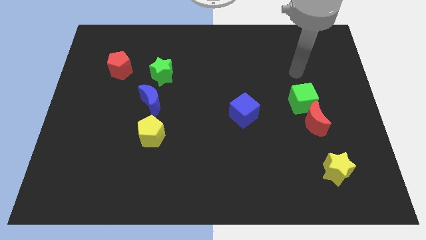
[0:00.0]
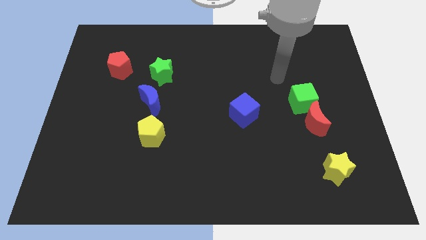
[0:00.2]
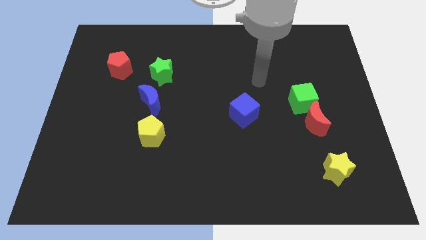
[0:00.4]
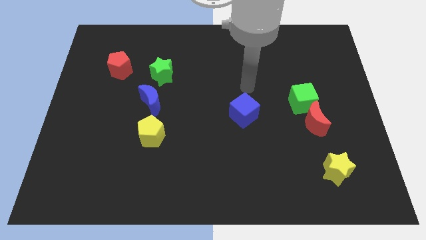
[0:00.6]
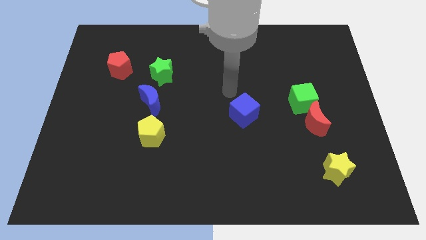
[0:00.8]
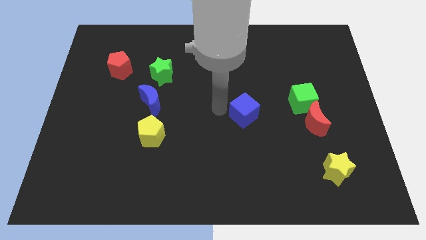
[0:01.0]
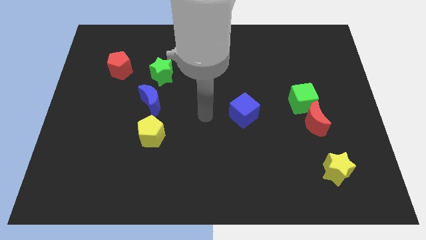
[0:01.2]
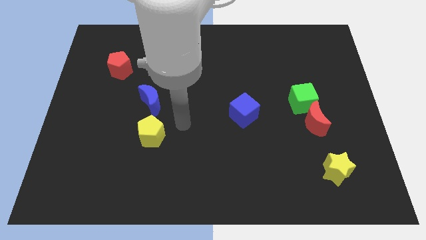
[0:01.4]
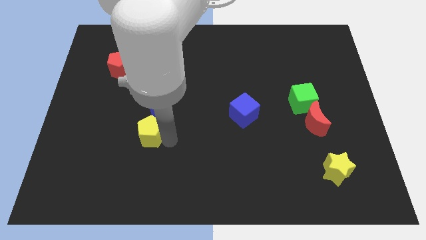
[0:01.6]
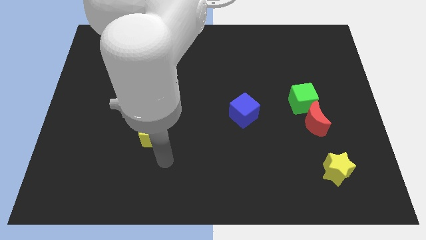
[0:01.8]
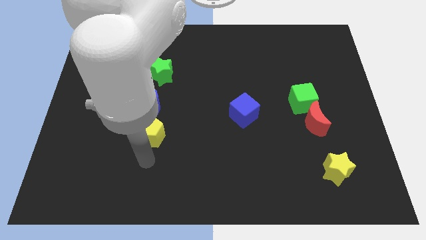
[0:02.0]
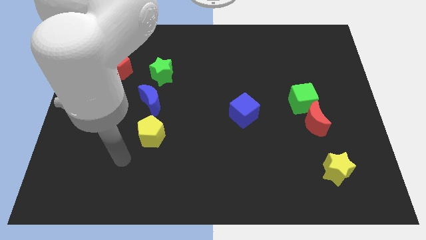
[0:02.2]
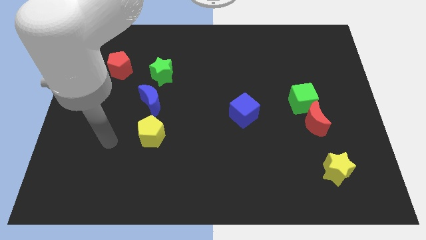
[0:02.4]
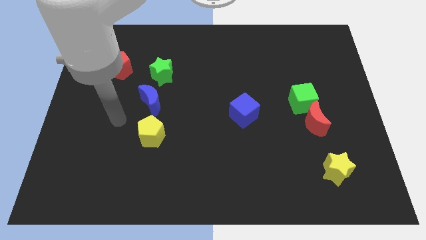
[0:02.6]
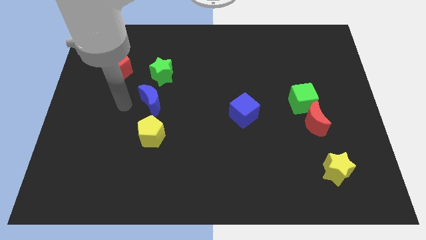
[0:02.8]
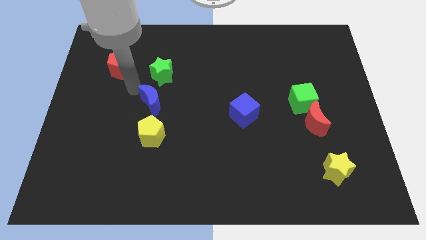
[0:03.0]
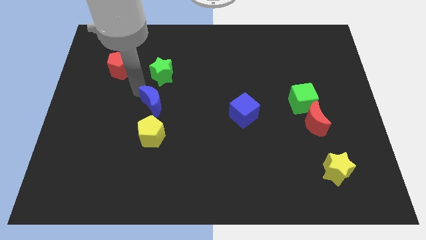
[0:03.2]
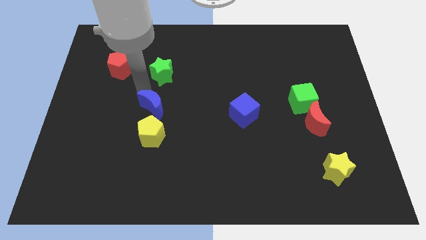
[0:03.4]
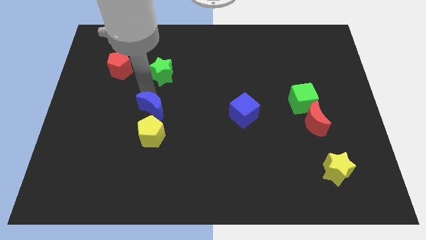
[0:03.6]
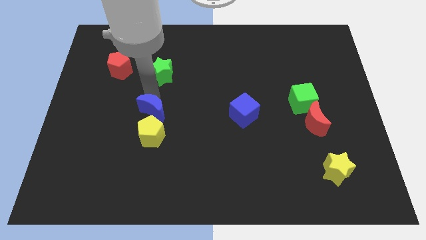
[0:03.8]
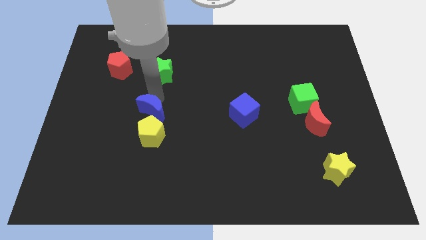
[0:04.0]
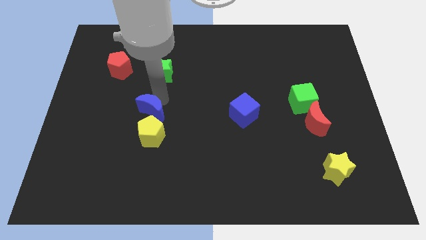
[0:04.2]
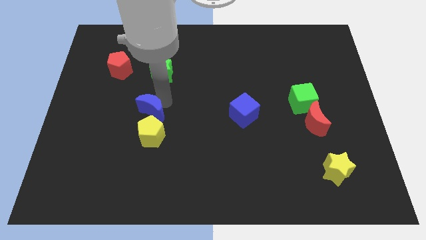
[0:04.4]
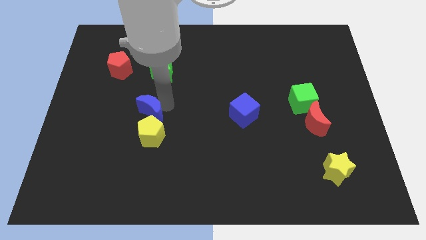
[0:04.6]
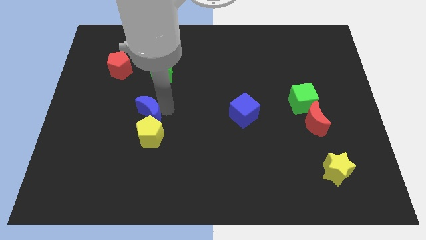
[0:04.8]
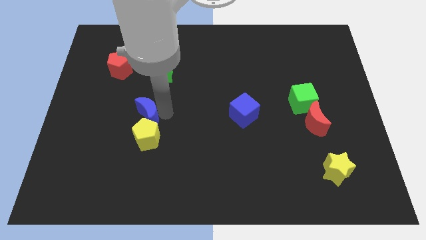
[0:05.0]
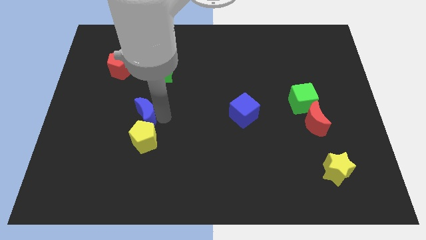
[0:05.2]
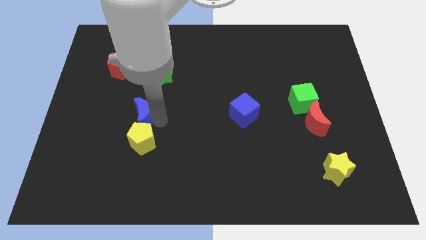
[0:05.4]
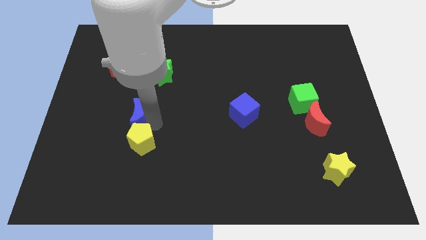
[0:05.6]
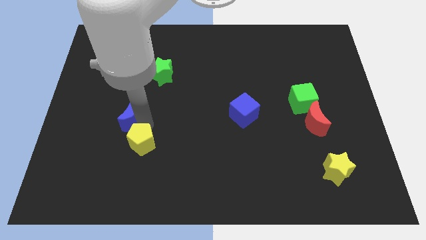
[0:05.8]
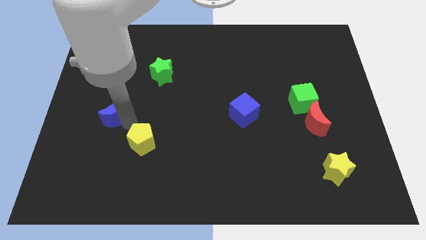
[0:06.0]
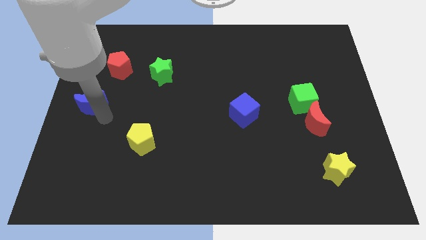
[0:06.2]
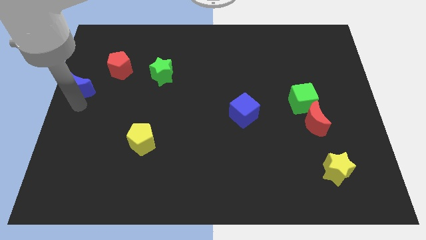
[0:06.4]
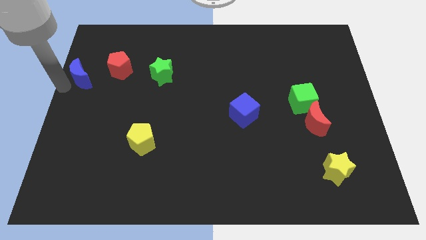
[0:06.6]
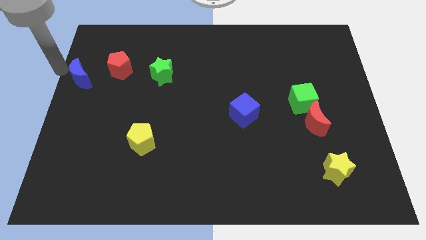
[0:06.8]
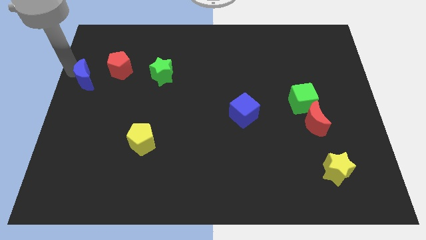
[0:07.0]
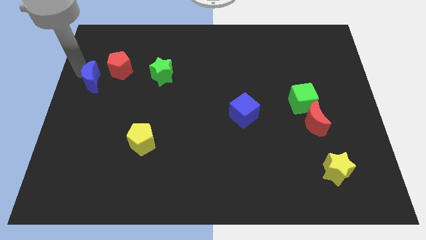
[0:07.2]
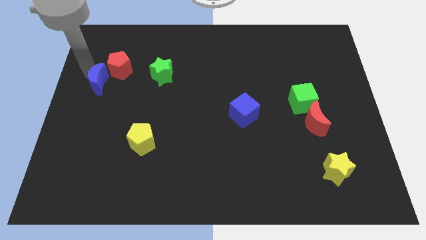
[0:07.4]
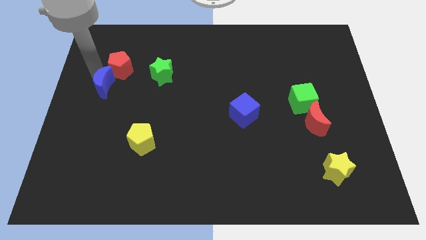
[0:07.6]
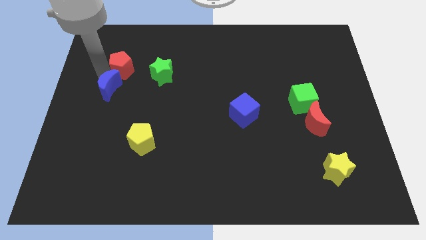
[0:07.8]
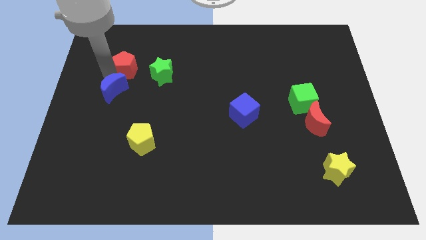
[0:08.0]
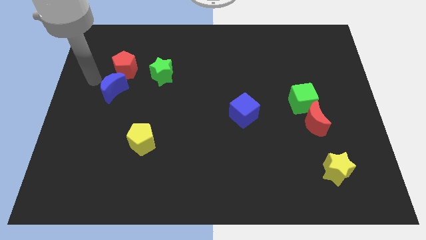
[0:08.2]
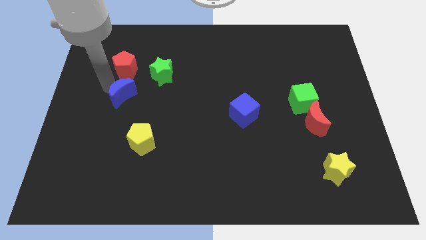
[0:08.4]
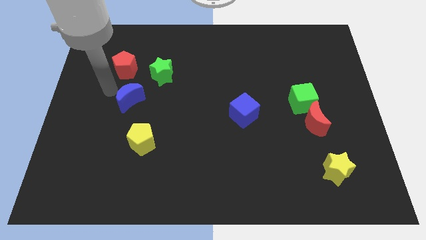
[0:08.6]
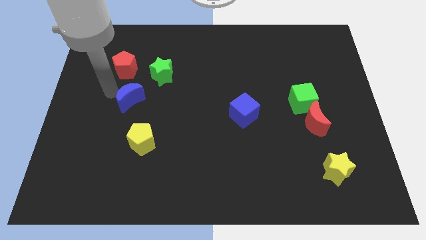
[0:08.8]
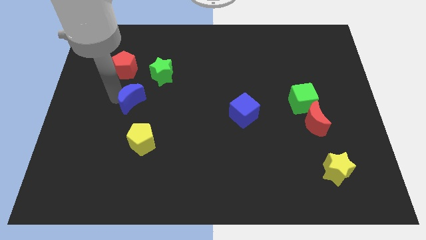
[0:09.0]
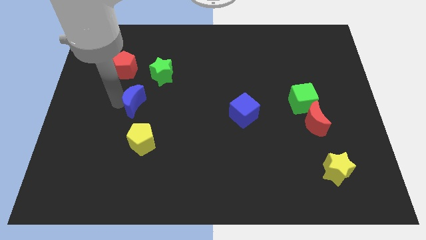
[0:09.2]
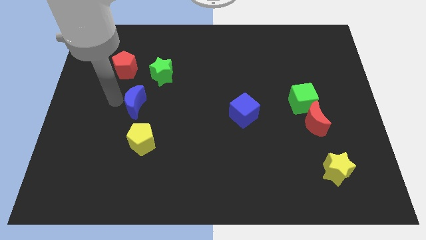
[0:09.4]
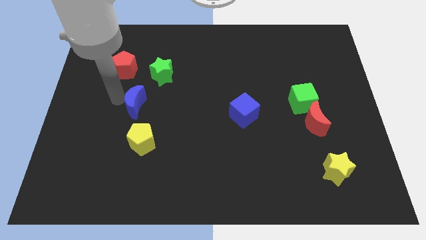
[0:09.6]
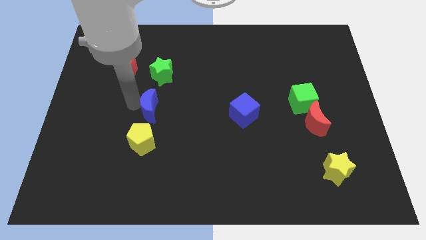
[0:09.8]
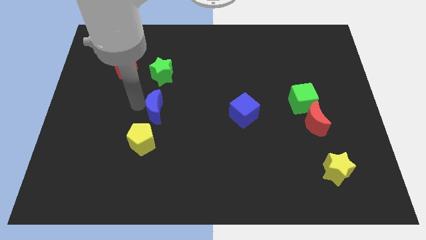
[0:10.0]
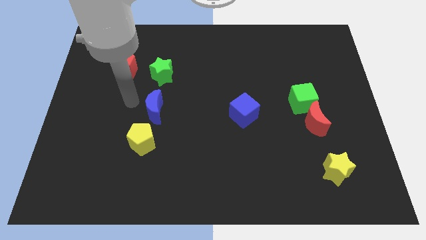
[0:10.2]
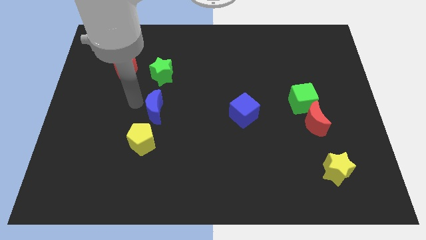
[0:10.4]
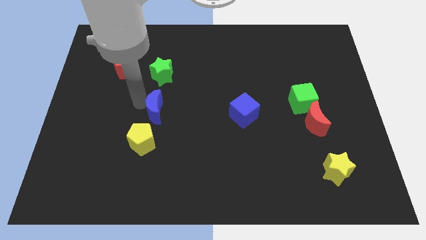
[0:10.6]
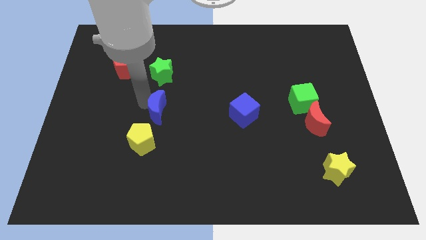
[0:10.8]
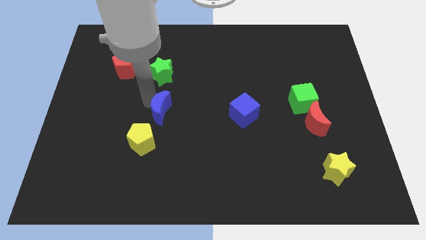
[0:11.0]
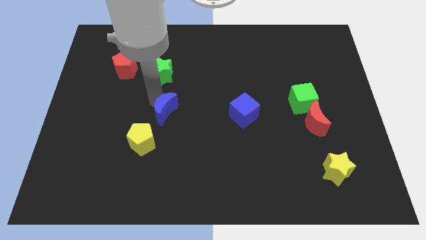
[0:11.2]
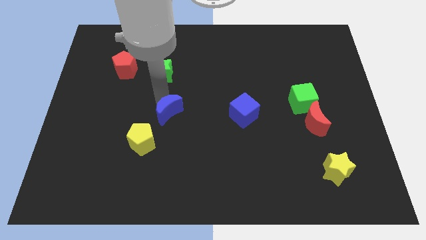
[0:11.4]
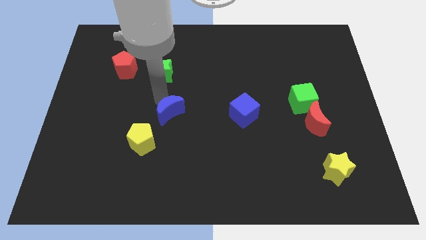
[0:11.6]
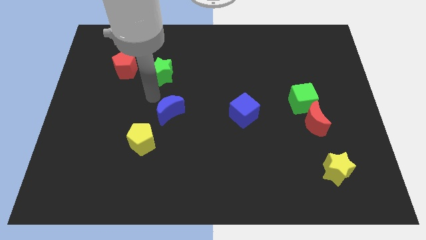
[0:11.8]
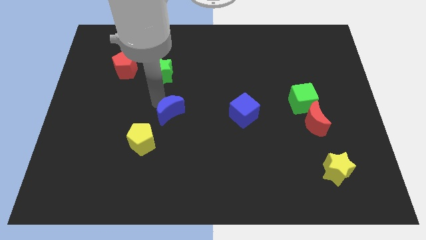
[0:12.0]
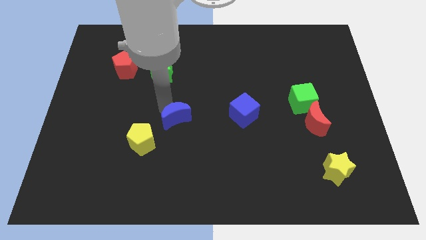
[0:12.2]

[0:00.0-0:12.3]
slightly move the blue moon down and then to the right

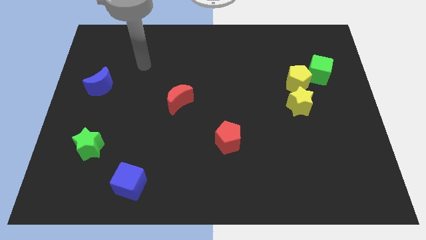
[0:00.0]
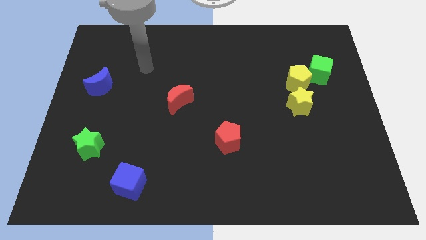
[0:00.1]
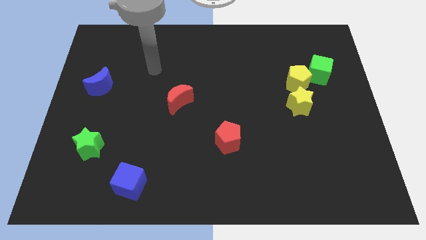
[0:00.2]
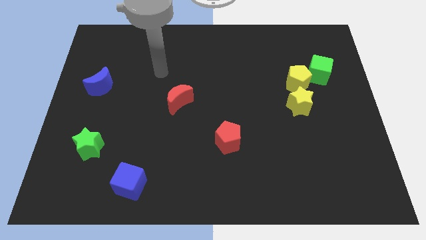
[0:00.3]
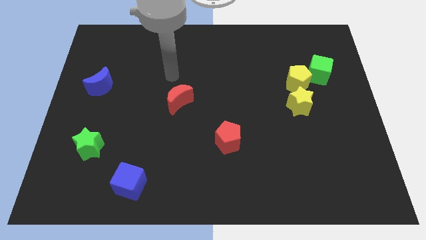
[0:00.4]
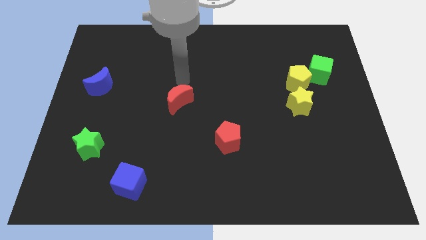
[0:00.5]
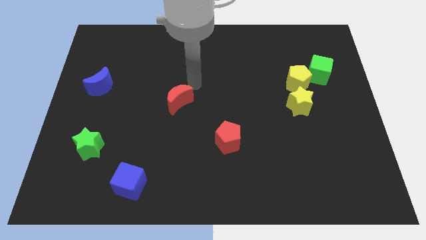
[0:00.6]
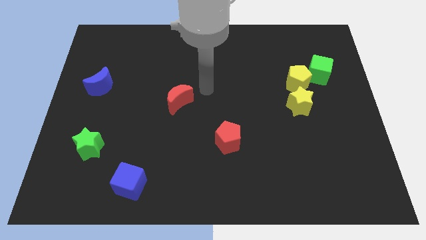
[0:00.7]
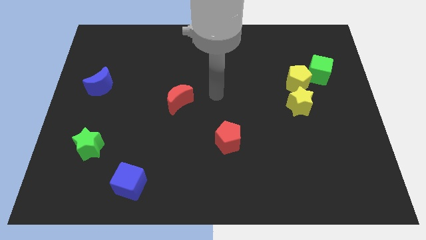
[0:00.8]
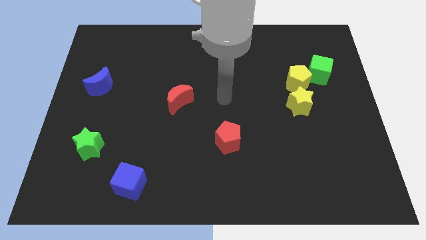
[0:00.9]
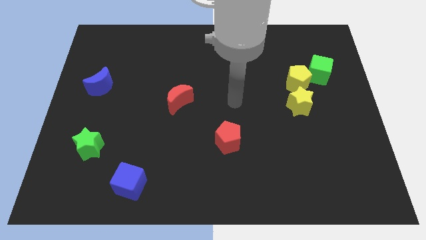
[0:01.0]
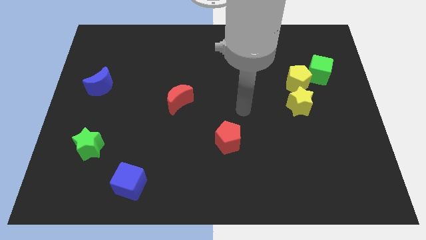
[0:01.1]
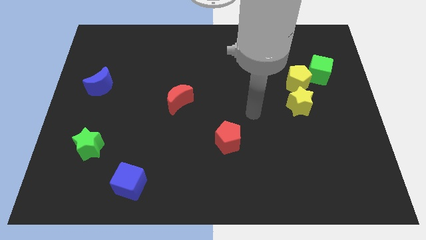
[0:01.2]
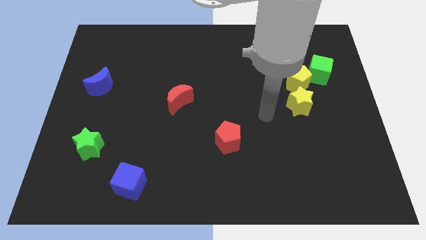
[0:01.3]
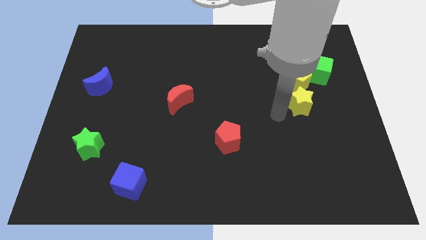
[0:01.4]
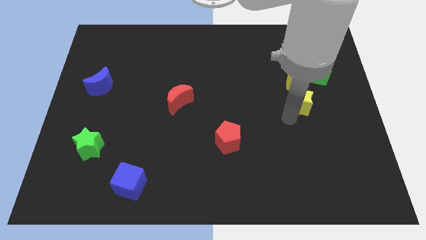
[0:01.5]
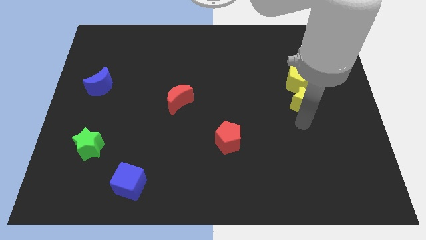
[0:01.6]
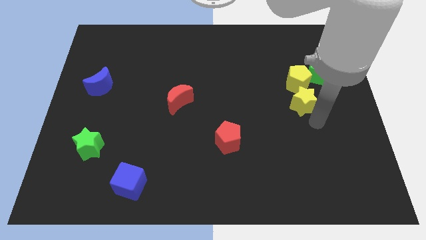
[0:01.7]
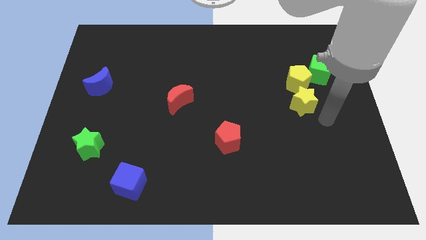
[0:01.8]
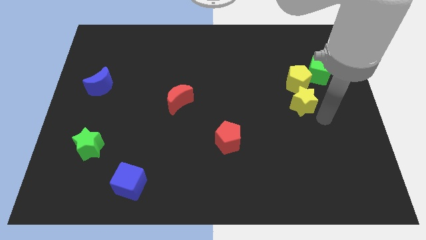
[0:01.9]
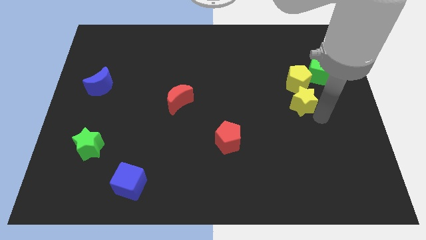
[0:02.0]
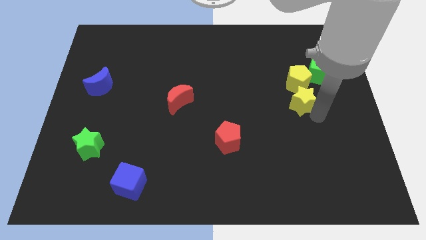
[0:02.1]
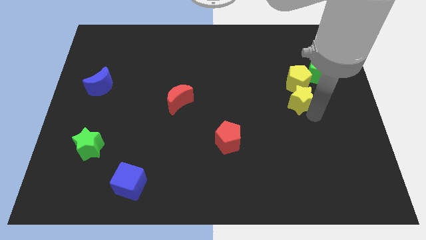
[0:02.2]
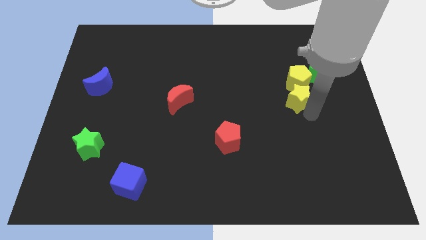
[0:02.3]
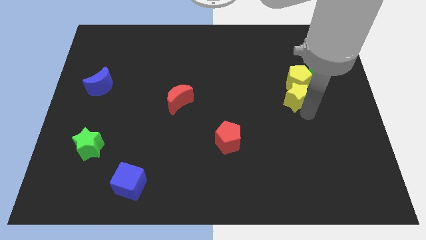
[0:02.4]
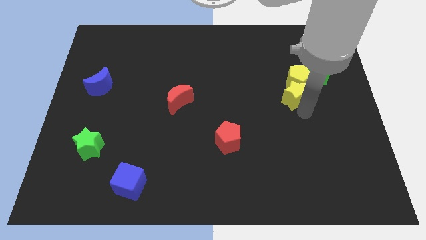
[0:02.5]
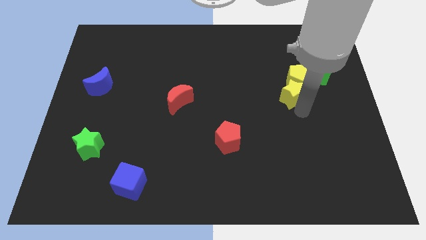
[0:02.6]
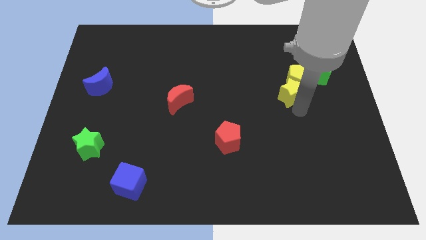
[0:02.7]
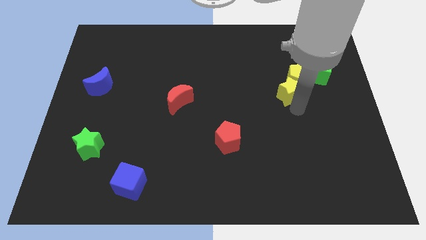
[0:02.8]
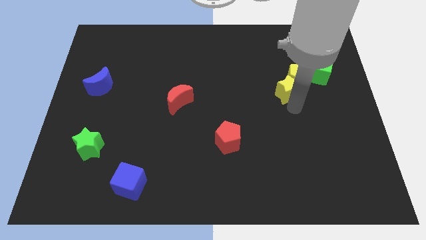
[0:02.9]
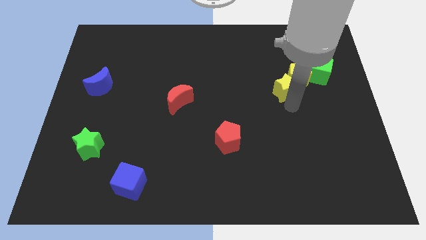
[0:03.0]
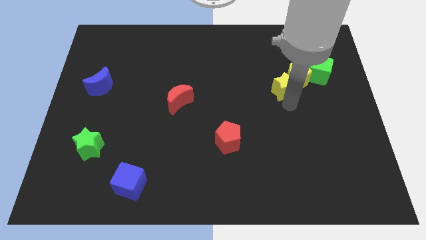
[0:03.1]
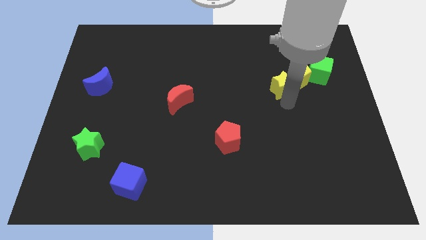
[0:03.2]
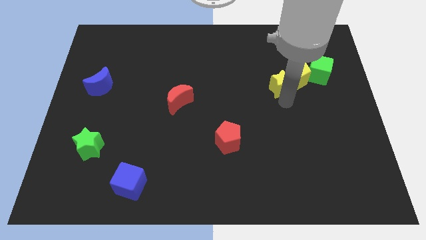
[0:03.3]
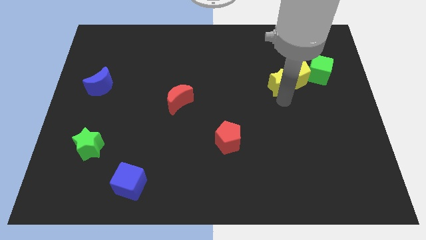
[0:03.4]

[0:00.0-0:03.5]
move the yellow star a little bit up and left diagonally
